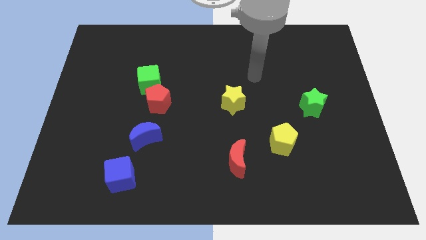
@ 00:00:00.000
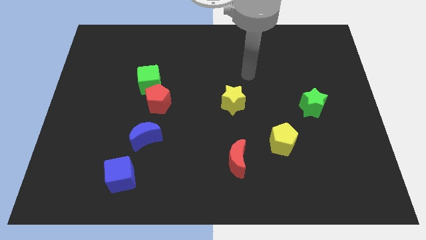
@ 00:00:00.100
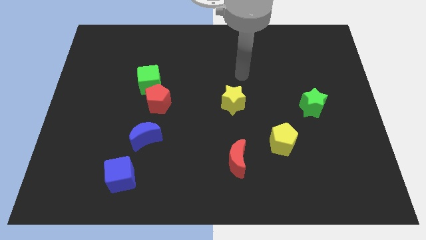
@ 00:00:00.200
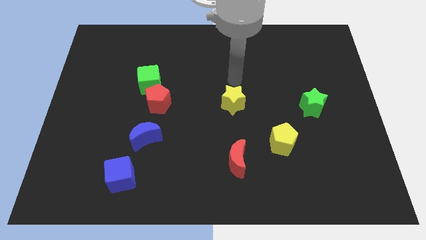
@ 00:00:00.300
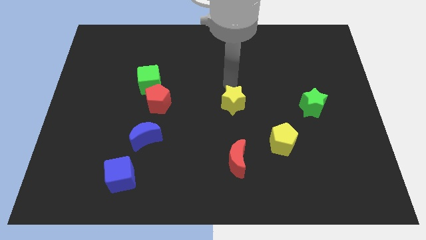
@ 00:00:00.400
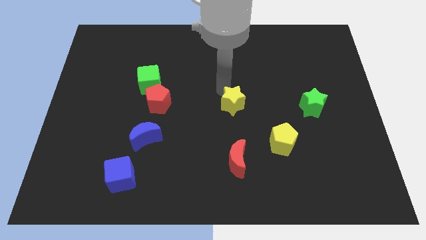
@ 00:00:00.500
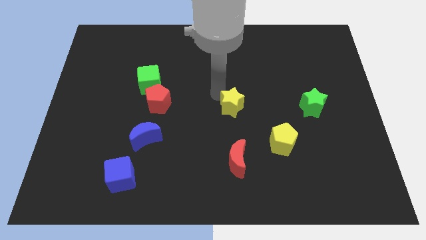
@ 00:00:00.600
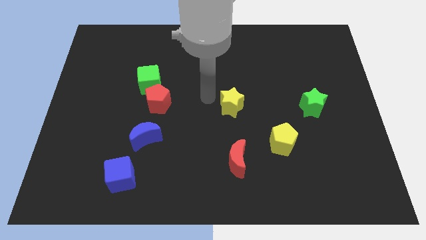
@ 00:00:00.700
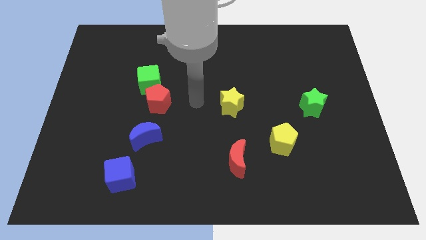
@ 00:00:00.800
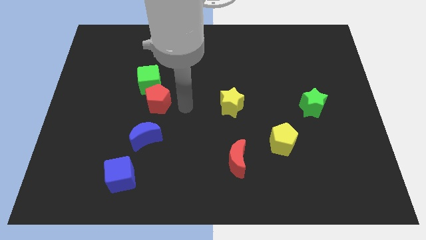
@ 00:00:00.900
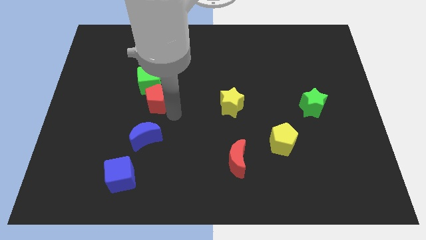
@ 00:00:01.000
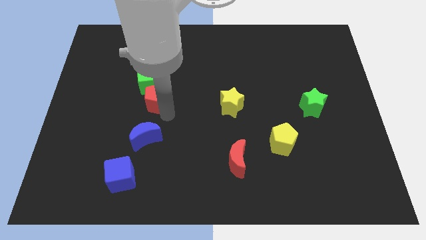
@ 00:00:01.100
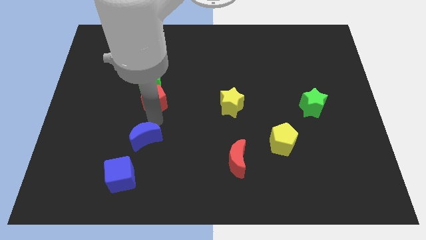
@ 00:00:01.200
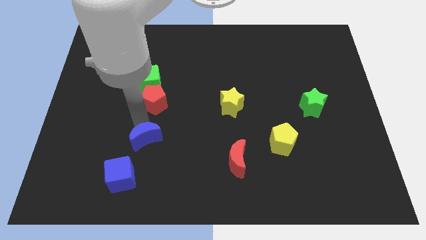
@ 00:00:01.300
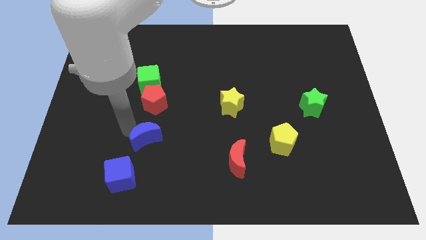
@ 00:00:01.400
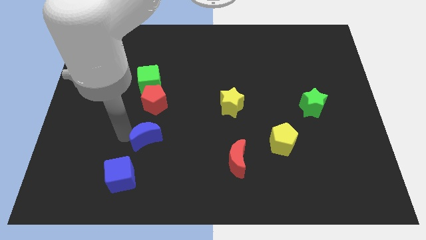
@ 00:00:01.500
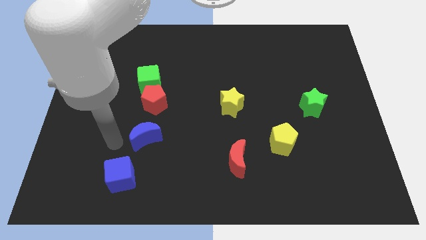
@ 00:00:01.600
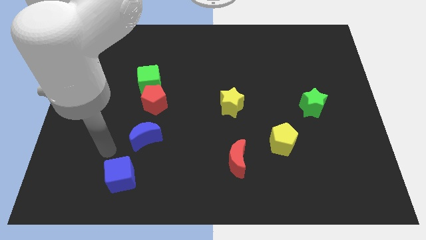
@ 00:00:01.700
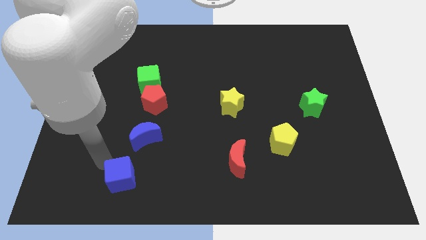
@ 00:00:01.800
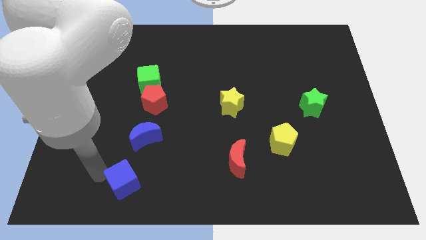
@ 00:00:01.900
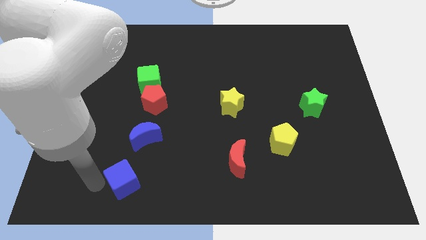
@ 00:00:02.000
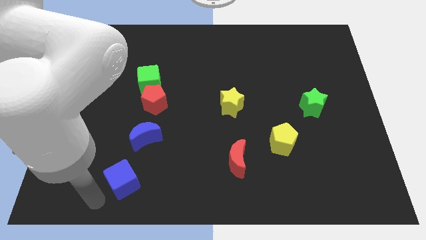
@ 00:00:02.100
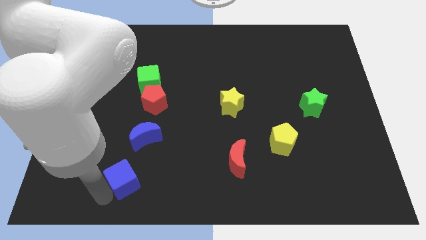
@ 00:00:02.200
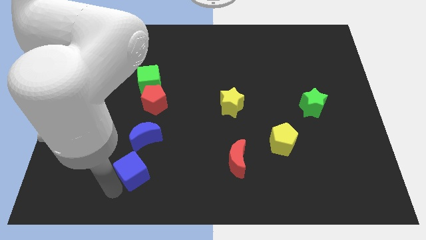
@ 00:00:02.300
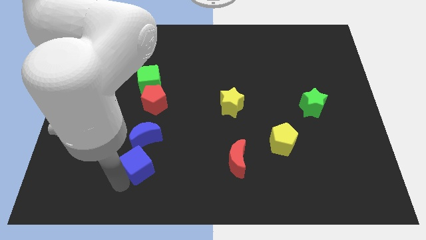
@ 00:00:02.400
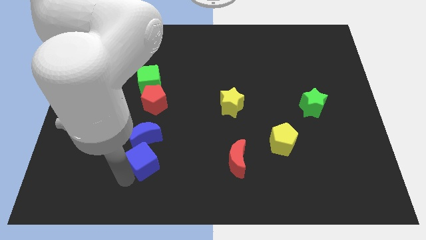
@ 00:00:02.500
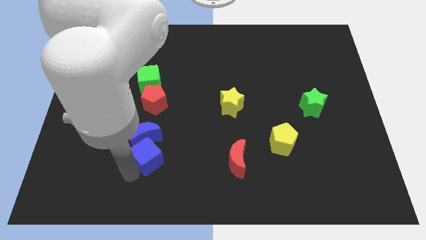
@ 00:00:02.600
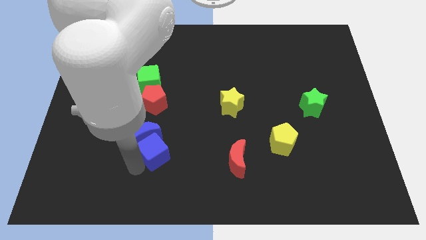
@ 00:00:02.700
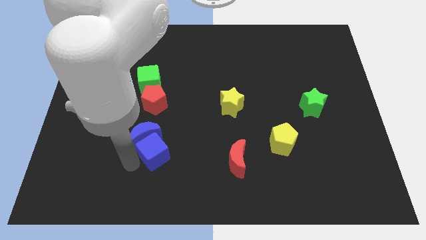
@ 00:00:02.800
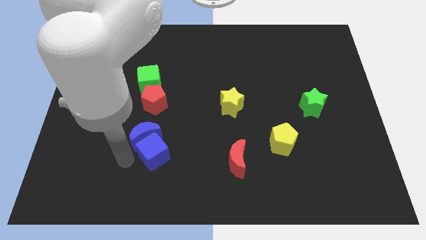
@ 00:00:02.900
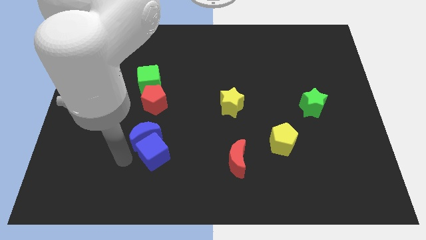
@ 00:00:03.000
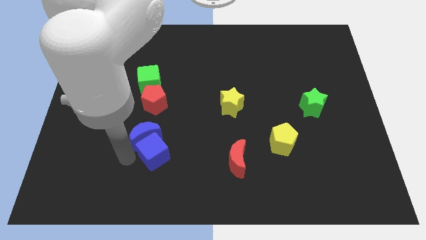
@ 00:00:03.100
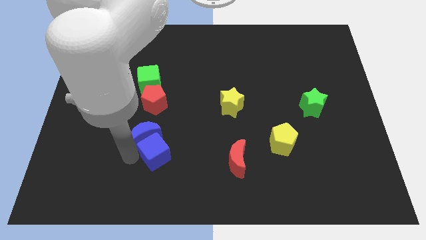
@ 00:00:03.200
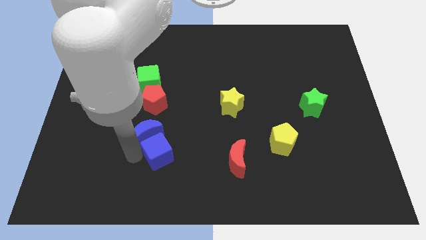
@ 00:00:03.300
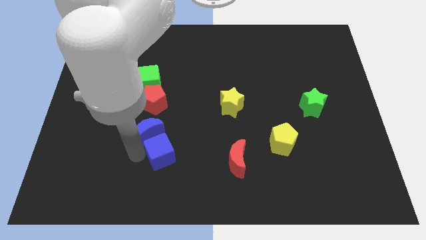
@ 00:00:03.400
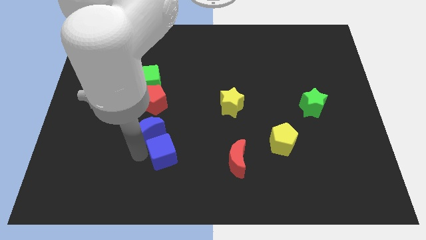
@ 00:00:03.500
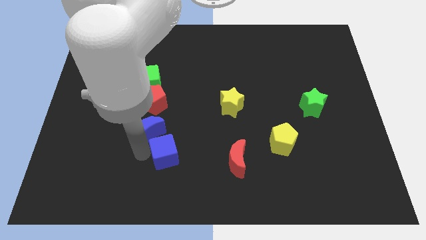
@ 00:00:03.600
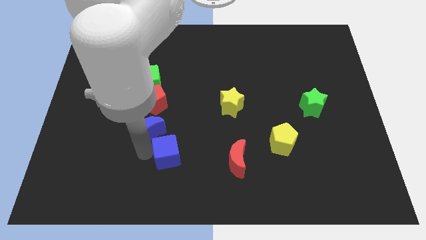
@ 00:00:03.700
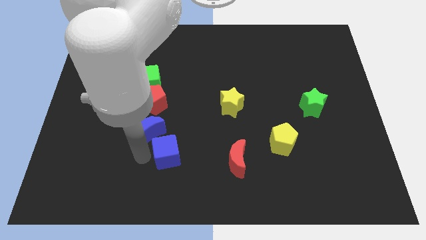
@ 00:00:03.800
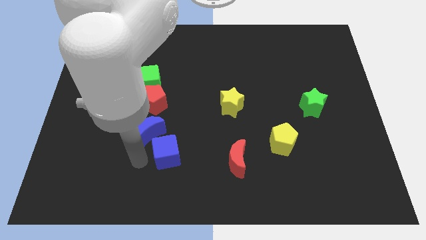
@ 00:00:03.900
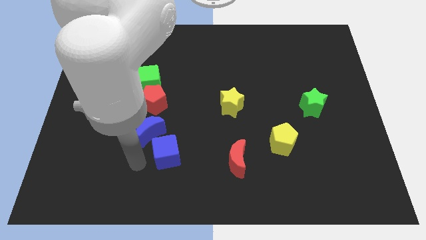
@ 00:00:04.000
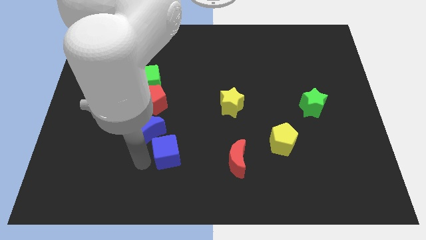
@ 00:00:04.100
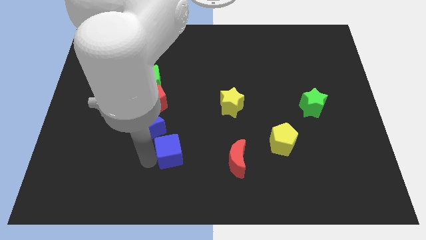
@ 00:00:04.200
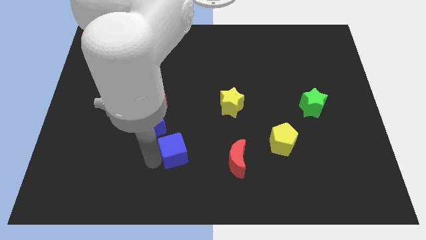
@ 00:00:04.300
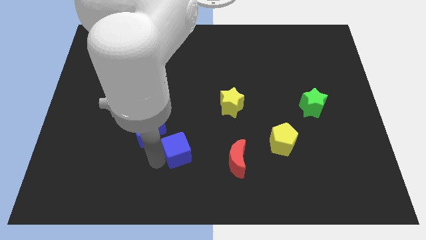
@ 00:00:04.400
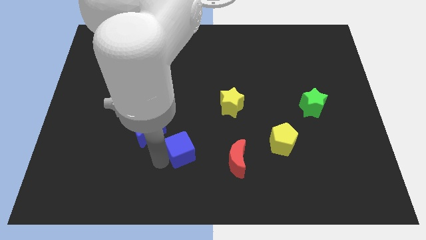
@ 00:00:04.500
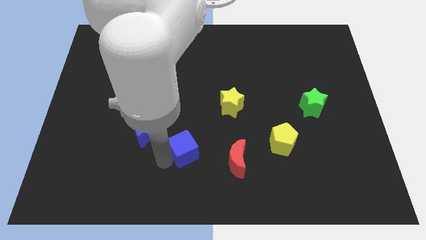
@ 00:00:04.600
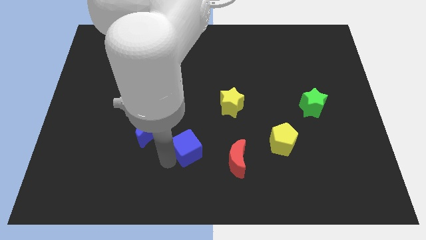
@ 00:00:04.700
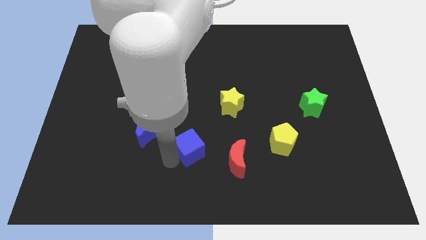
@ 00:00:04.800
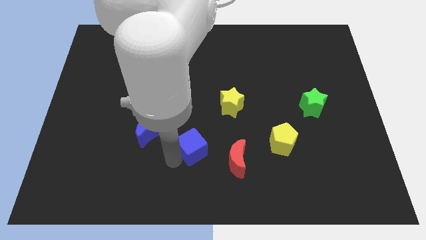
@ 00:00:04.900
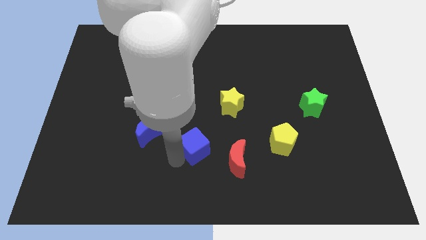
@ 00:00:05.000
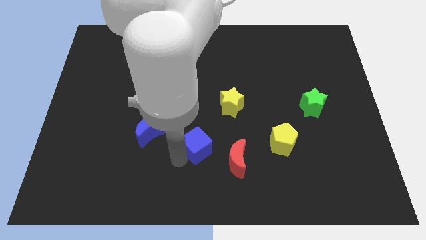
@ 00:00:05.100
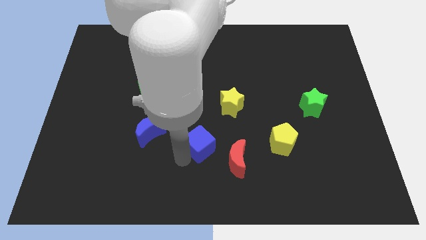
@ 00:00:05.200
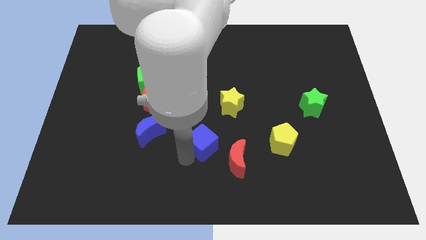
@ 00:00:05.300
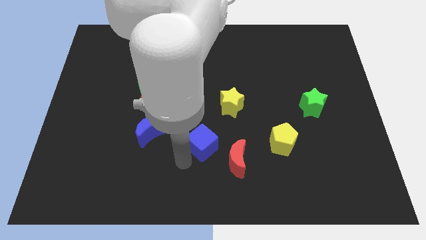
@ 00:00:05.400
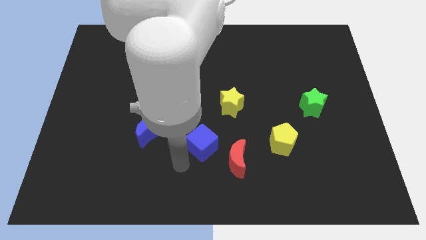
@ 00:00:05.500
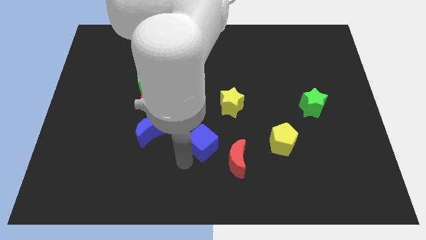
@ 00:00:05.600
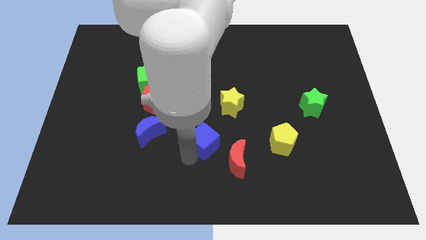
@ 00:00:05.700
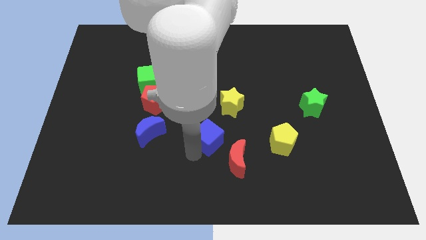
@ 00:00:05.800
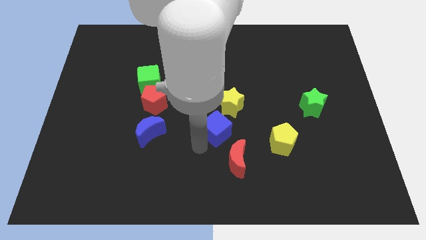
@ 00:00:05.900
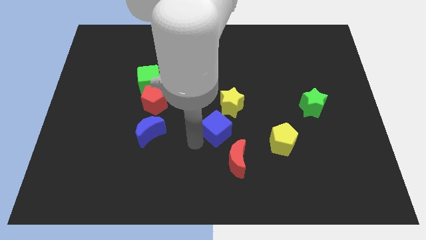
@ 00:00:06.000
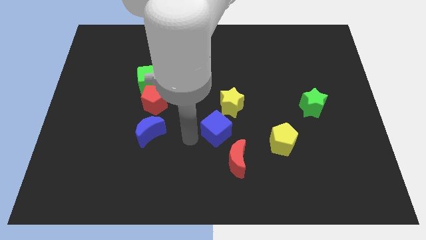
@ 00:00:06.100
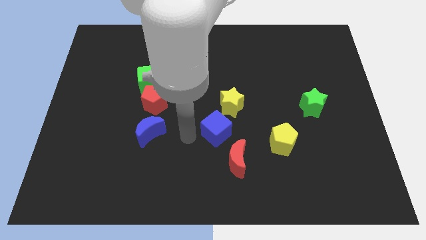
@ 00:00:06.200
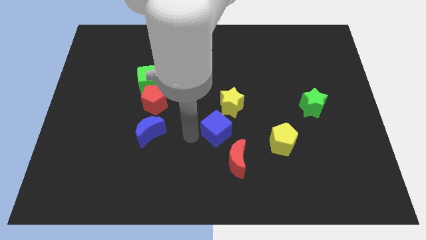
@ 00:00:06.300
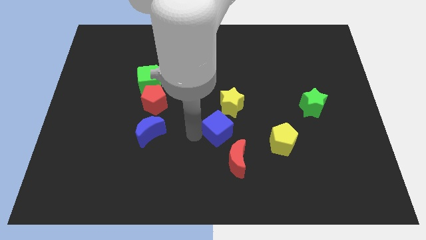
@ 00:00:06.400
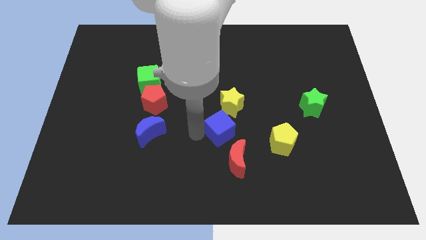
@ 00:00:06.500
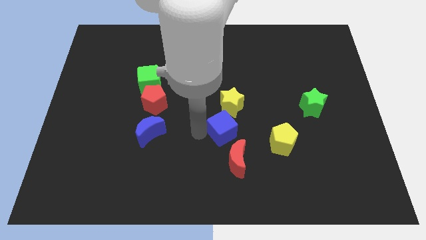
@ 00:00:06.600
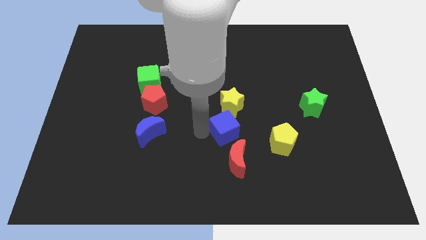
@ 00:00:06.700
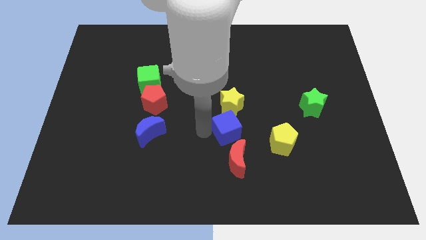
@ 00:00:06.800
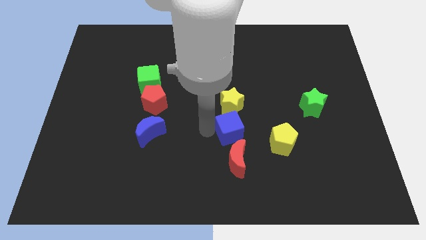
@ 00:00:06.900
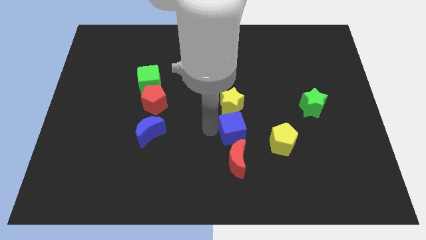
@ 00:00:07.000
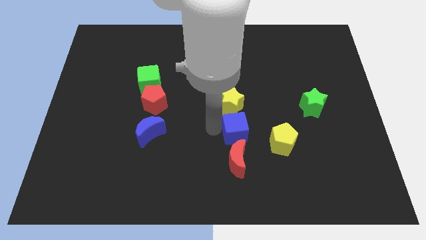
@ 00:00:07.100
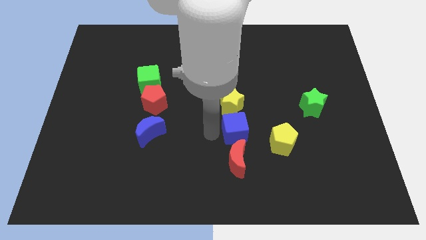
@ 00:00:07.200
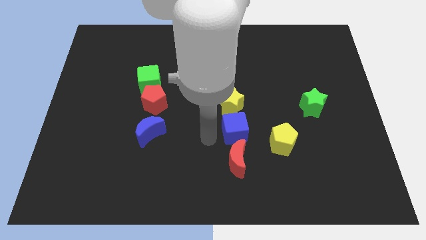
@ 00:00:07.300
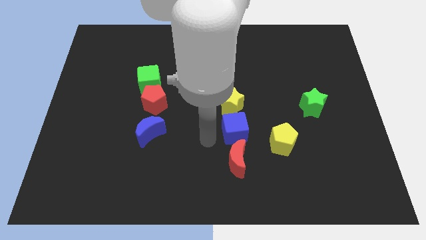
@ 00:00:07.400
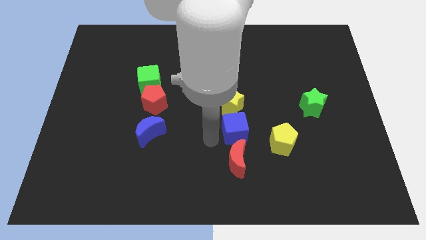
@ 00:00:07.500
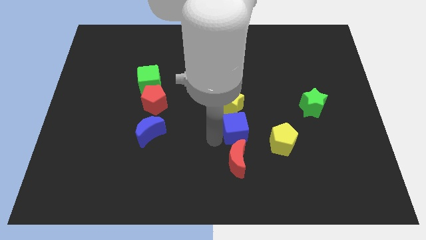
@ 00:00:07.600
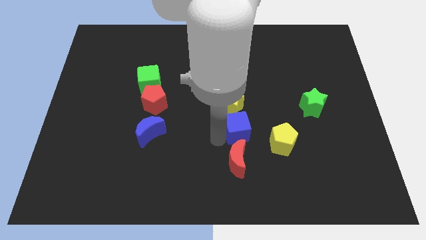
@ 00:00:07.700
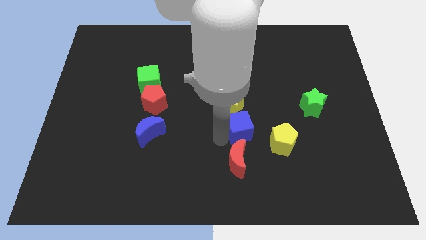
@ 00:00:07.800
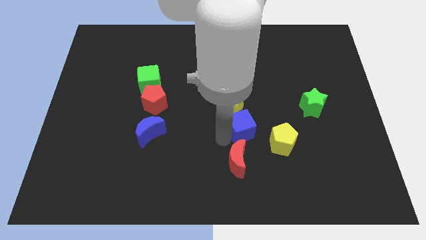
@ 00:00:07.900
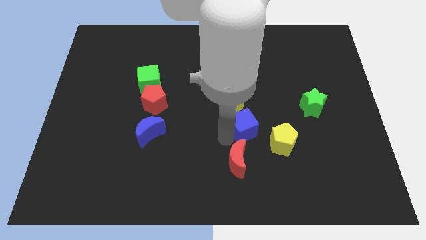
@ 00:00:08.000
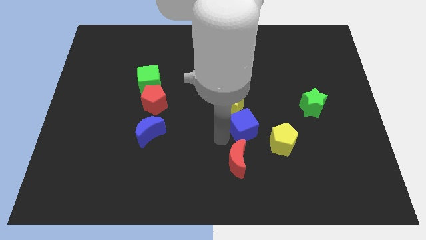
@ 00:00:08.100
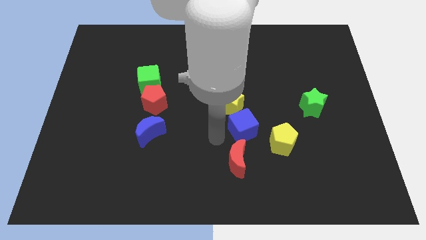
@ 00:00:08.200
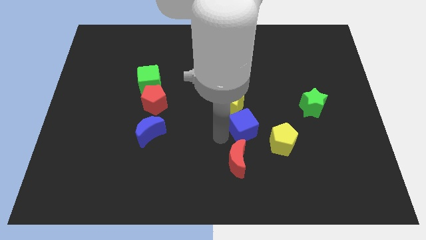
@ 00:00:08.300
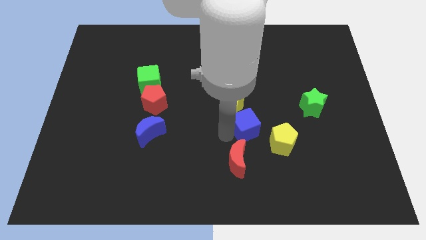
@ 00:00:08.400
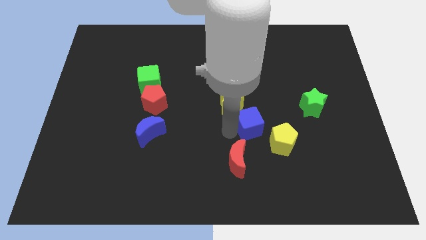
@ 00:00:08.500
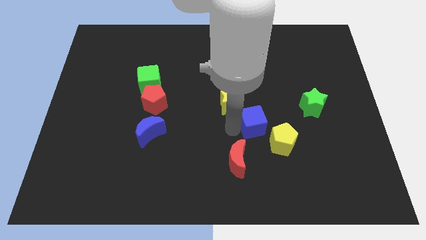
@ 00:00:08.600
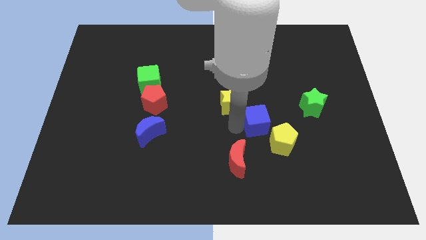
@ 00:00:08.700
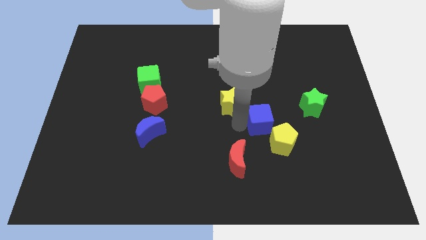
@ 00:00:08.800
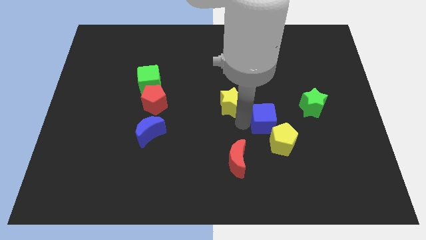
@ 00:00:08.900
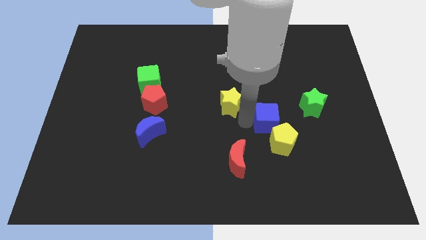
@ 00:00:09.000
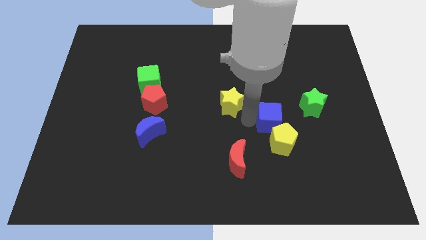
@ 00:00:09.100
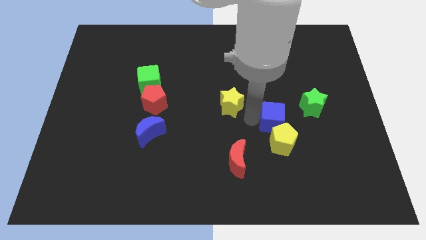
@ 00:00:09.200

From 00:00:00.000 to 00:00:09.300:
slide the blue cube diagonally down and to the left of the green star
